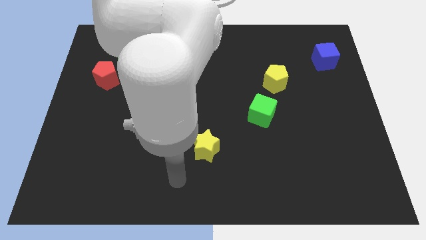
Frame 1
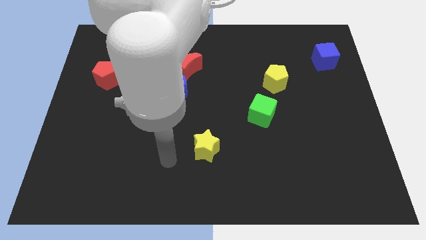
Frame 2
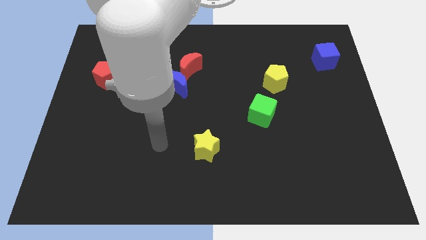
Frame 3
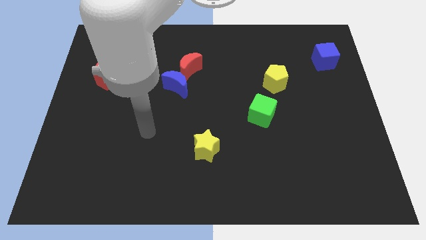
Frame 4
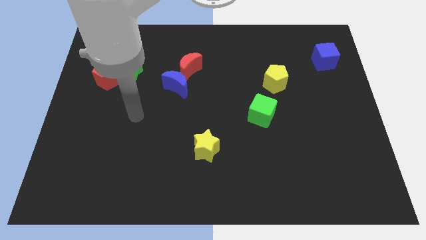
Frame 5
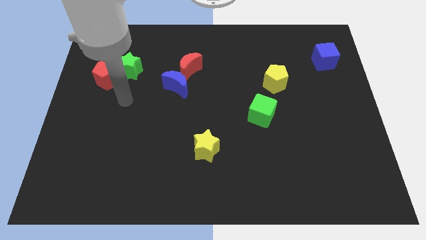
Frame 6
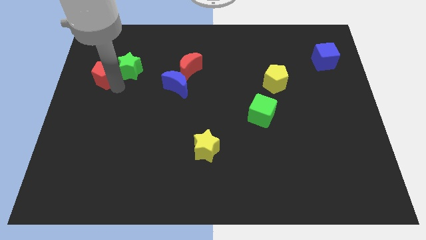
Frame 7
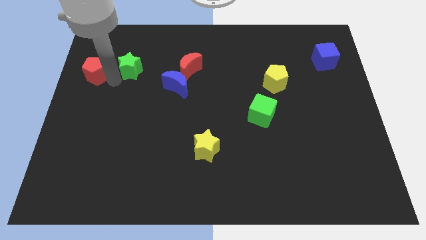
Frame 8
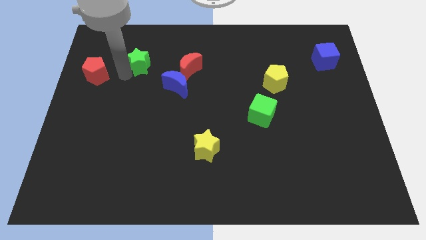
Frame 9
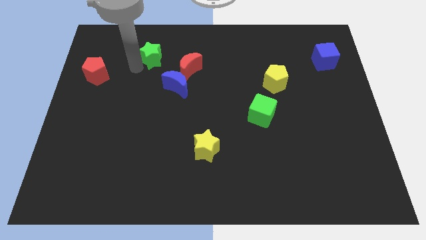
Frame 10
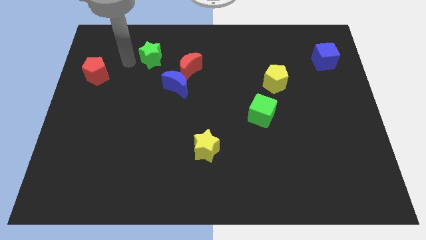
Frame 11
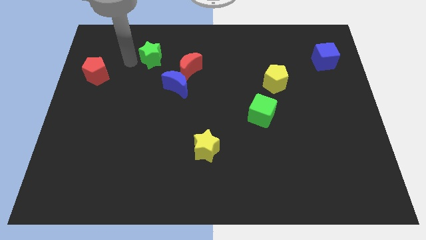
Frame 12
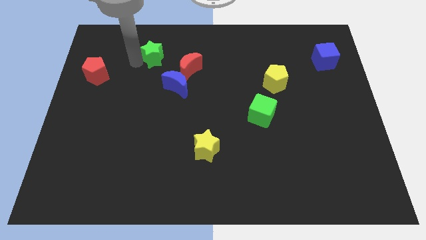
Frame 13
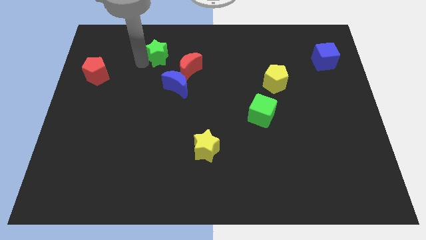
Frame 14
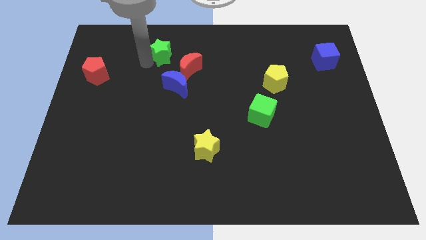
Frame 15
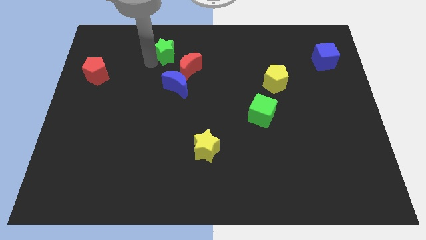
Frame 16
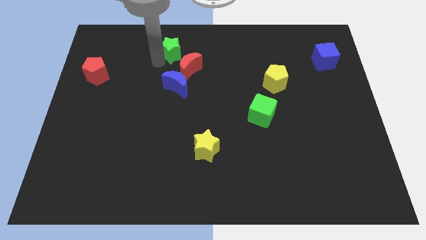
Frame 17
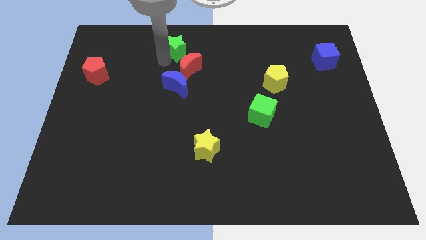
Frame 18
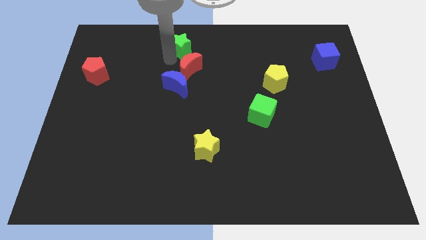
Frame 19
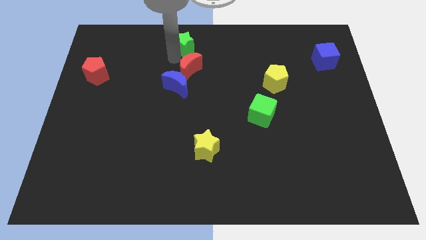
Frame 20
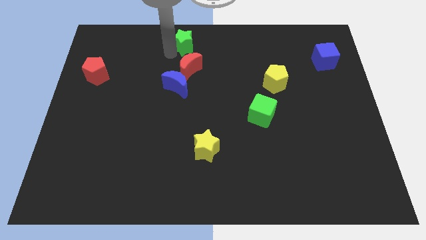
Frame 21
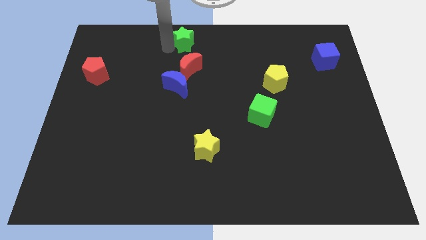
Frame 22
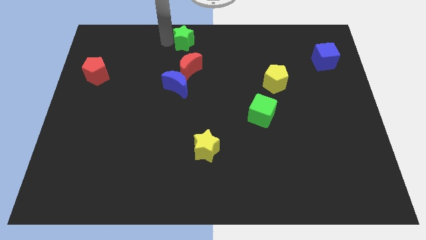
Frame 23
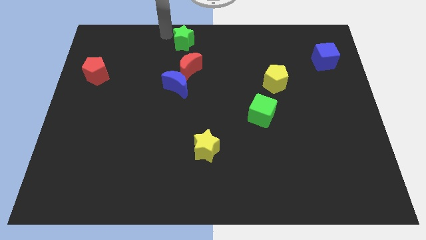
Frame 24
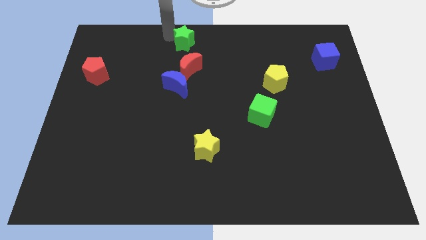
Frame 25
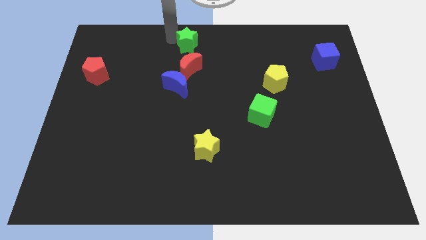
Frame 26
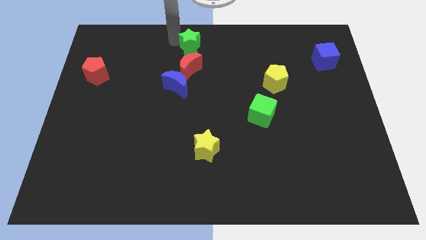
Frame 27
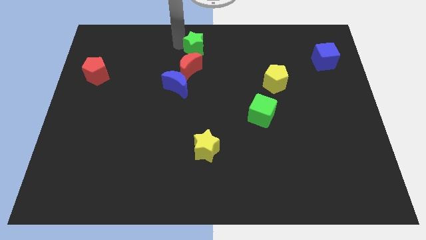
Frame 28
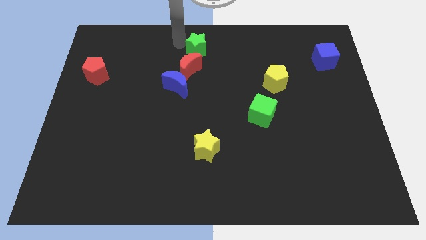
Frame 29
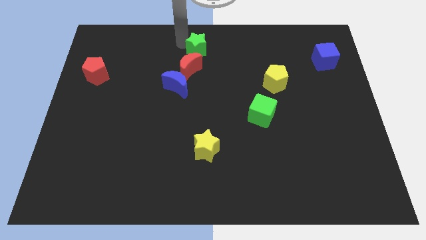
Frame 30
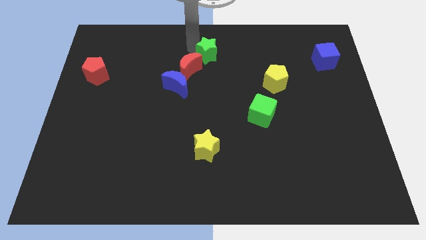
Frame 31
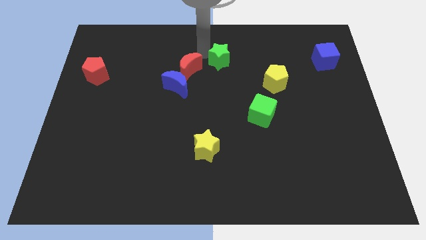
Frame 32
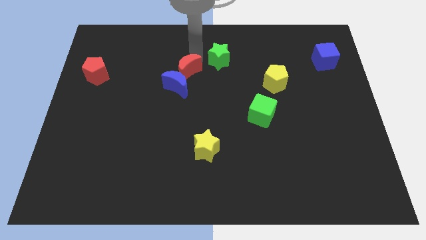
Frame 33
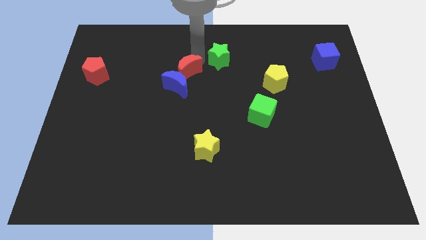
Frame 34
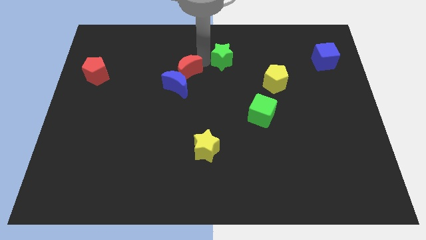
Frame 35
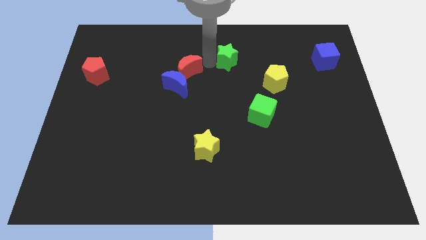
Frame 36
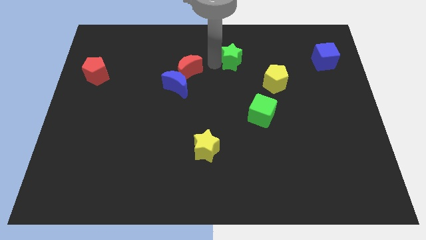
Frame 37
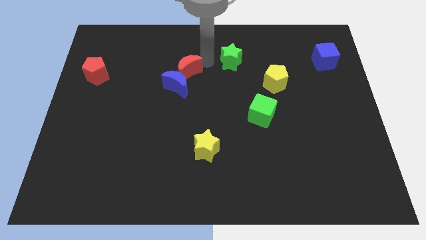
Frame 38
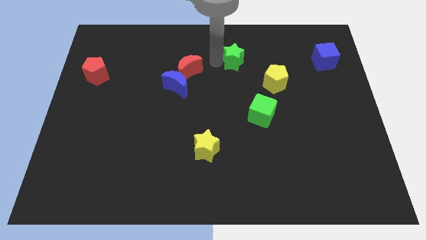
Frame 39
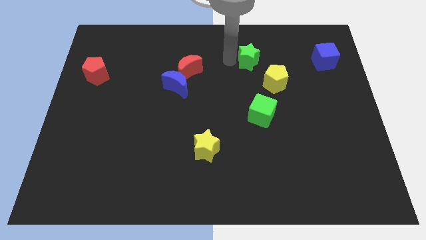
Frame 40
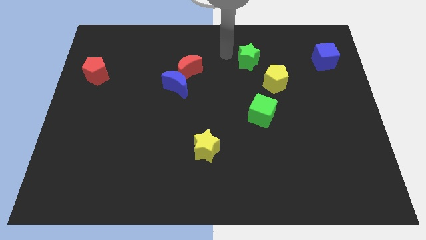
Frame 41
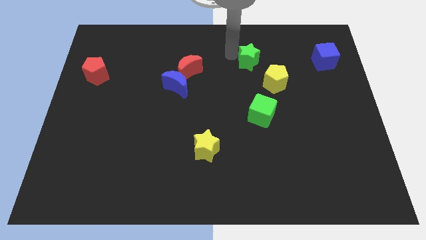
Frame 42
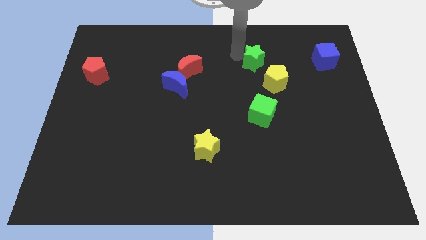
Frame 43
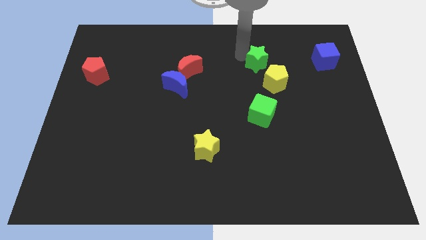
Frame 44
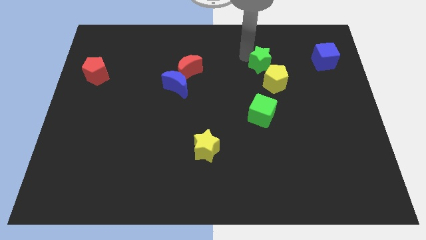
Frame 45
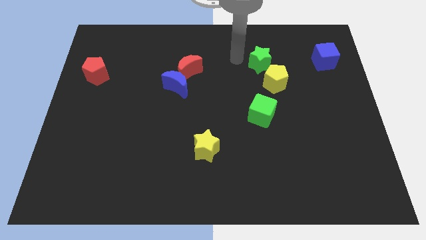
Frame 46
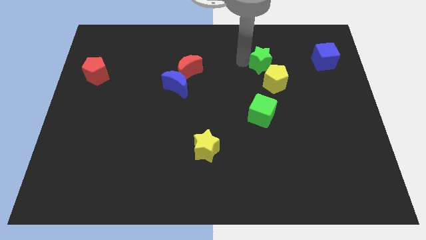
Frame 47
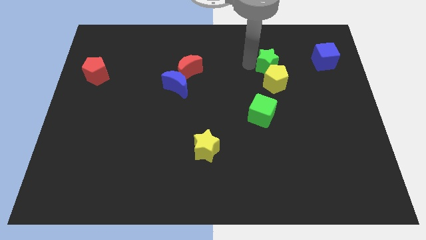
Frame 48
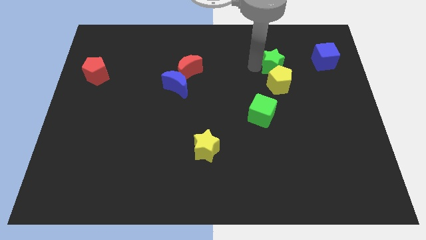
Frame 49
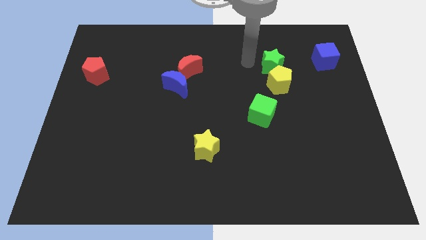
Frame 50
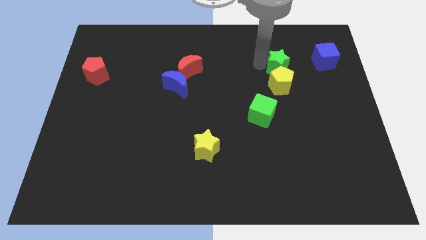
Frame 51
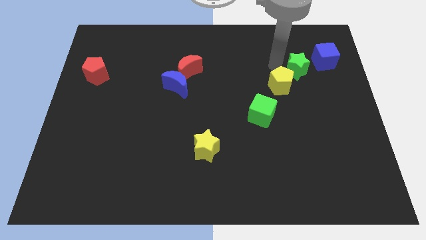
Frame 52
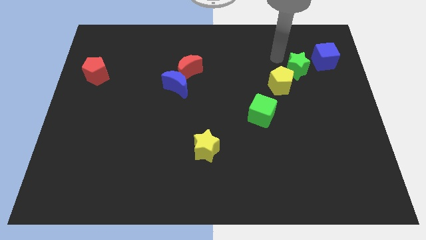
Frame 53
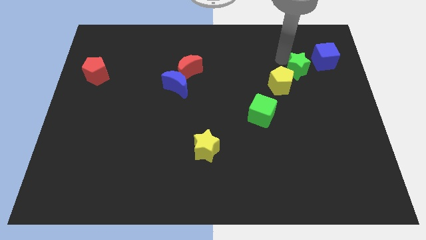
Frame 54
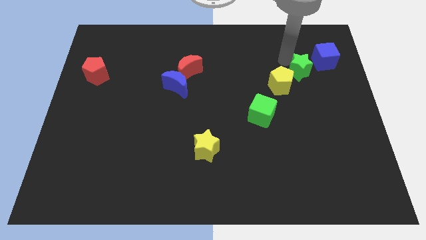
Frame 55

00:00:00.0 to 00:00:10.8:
push the green star right of the yellow pentagon

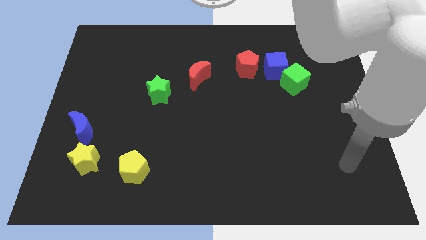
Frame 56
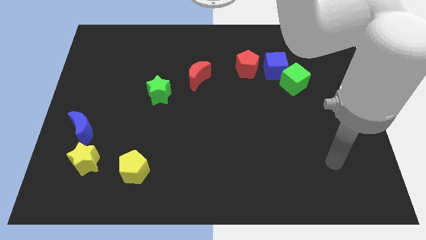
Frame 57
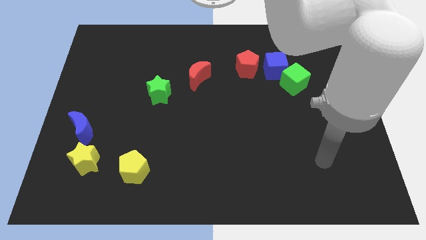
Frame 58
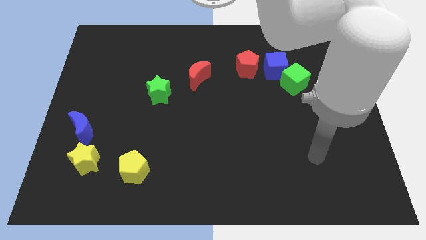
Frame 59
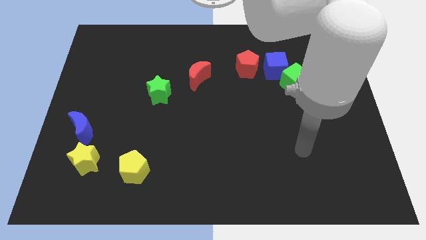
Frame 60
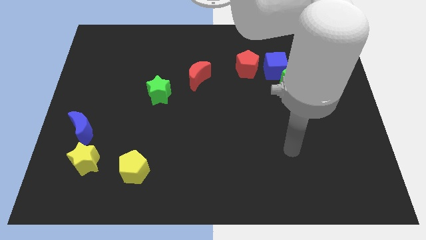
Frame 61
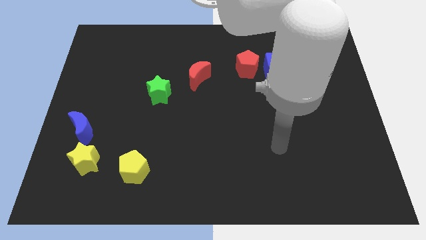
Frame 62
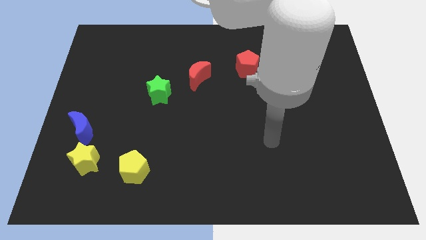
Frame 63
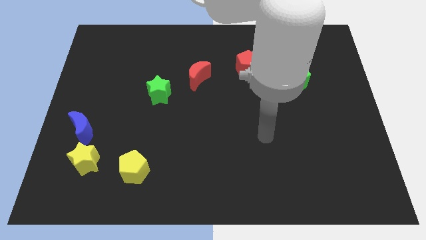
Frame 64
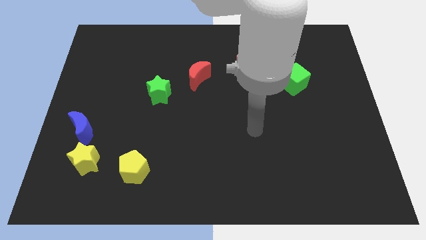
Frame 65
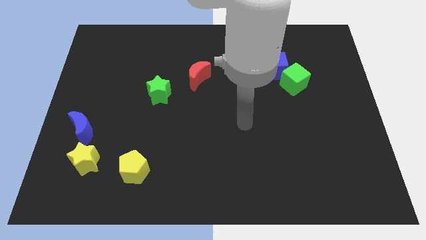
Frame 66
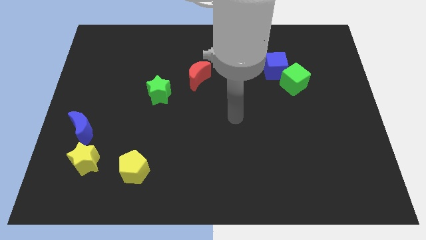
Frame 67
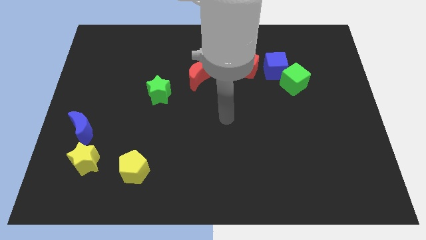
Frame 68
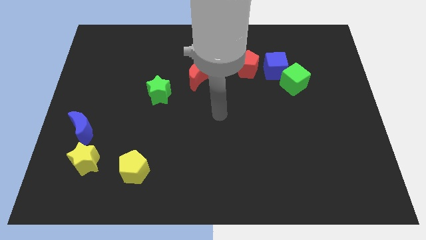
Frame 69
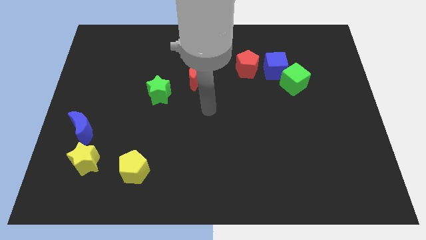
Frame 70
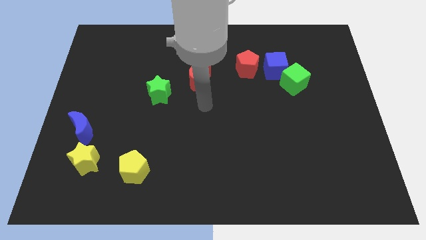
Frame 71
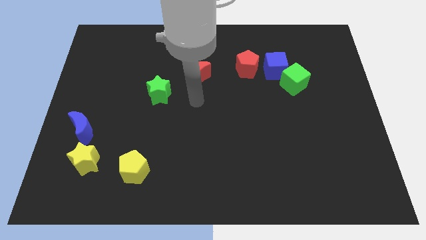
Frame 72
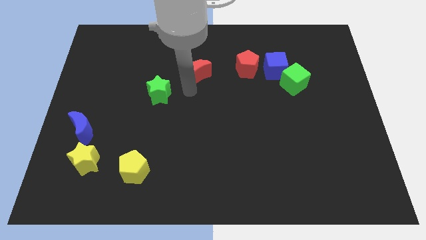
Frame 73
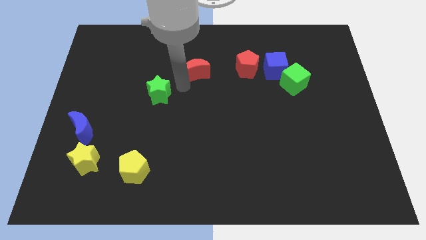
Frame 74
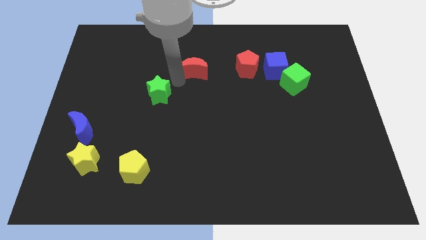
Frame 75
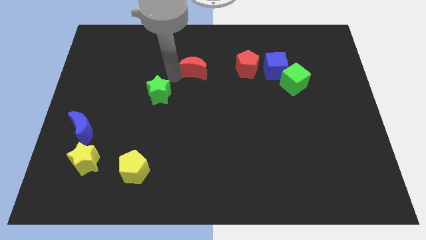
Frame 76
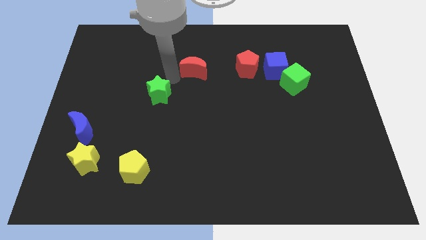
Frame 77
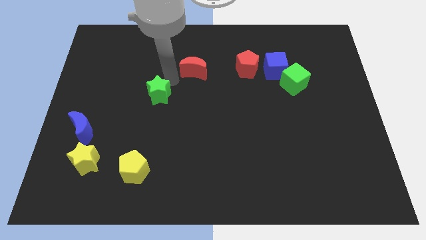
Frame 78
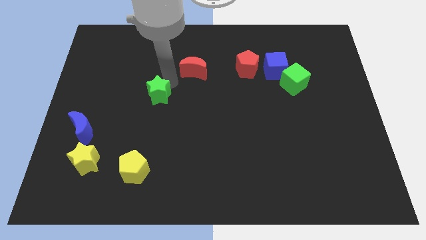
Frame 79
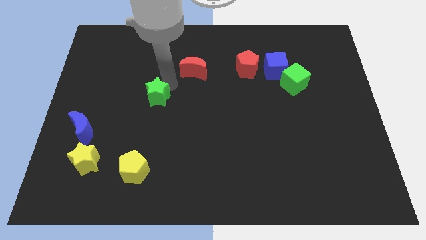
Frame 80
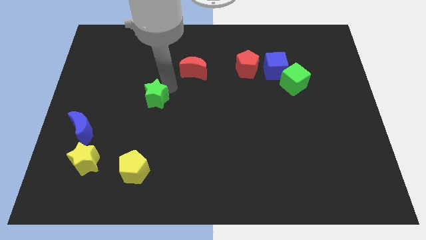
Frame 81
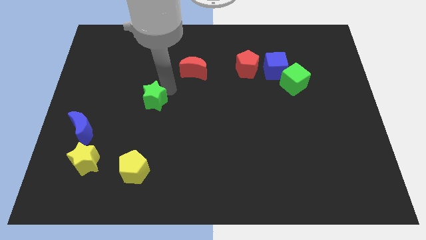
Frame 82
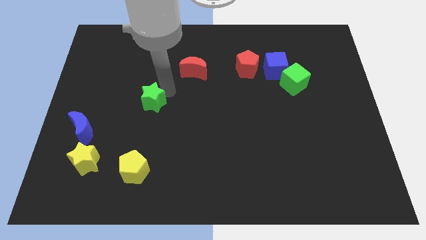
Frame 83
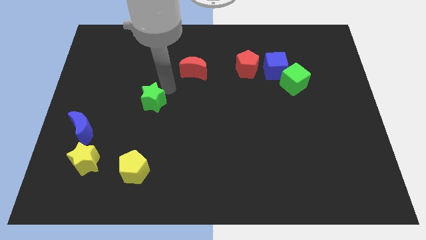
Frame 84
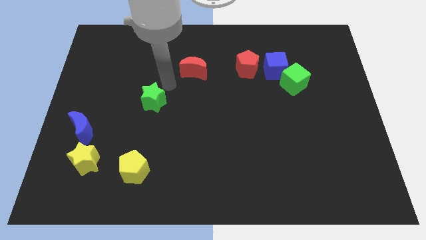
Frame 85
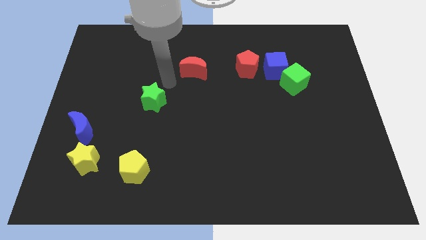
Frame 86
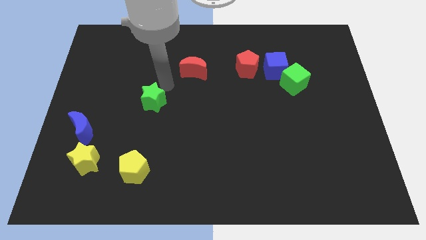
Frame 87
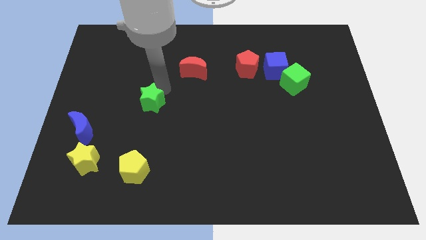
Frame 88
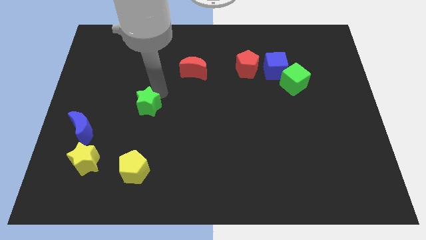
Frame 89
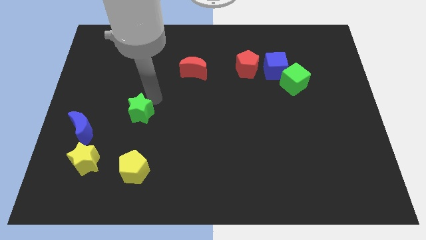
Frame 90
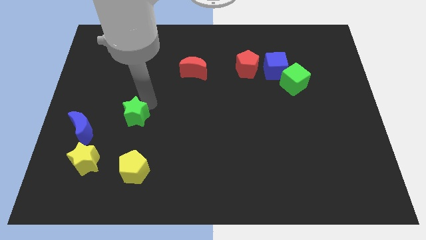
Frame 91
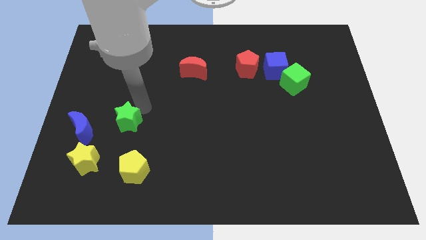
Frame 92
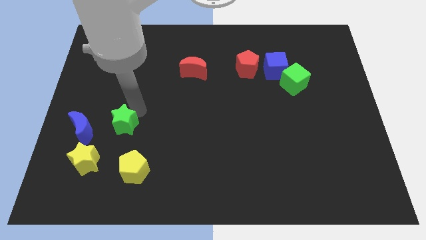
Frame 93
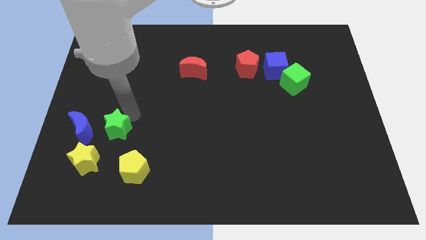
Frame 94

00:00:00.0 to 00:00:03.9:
slide the green star to the top left side of the yellow pentagon
